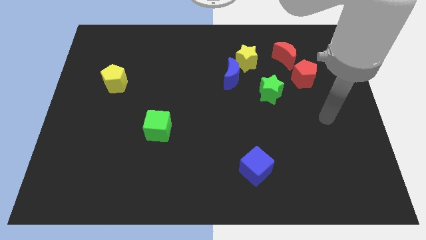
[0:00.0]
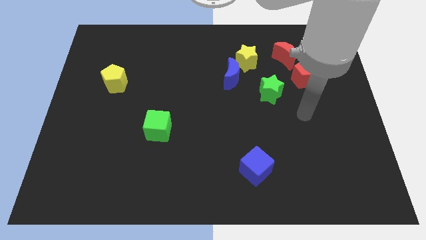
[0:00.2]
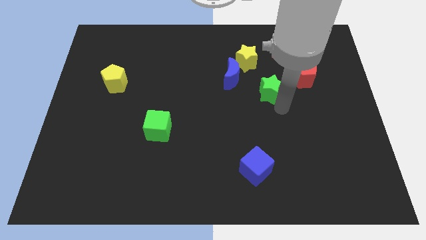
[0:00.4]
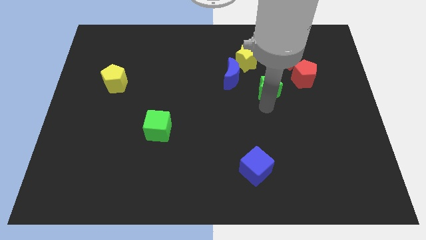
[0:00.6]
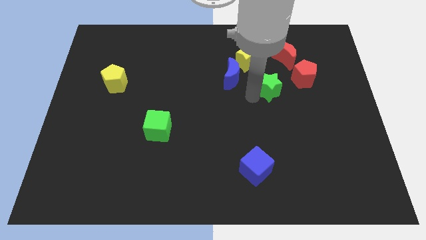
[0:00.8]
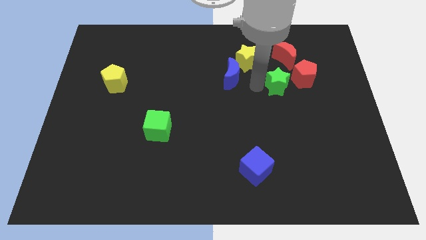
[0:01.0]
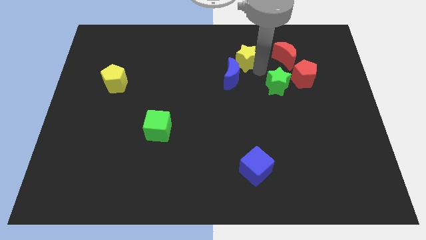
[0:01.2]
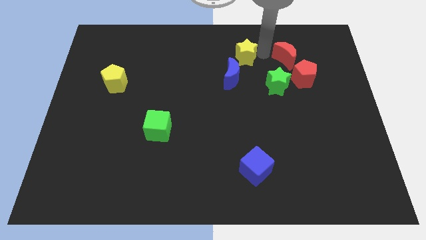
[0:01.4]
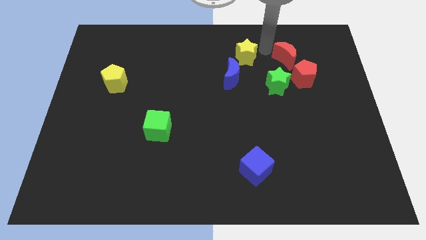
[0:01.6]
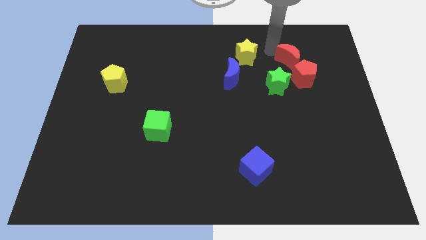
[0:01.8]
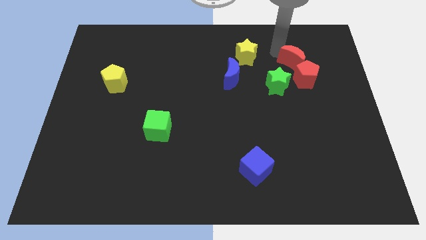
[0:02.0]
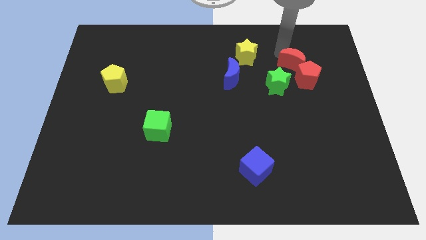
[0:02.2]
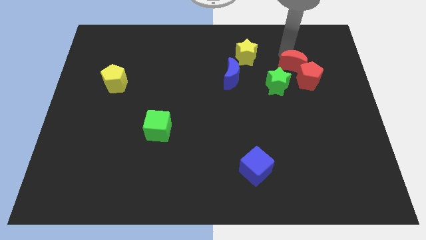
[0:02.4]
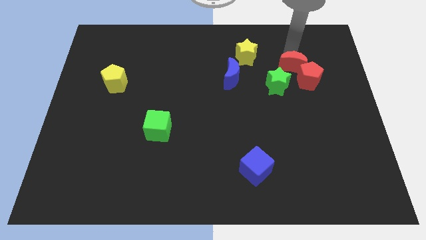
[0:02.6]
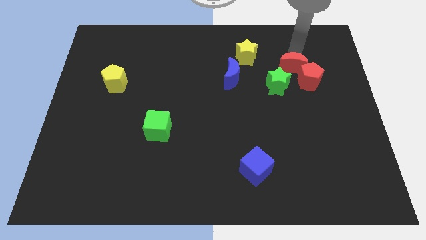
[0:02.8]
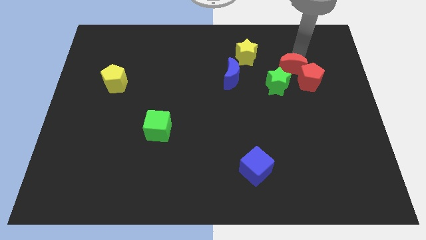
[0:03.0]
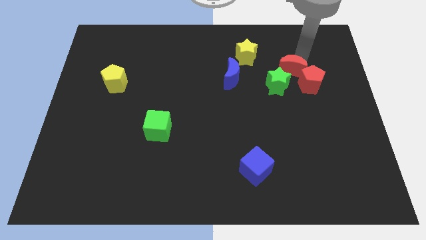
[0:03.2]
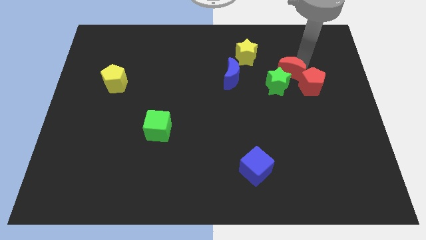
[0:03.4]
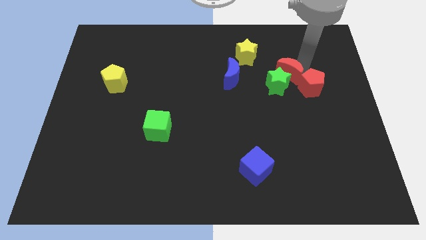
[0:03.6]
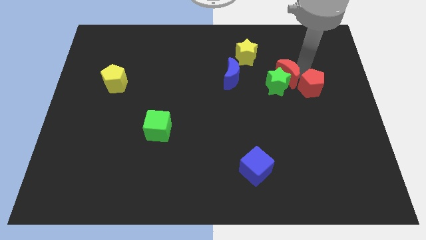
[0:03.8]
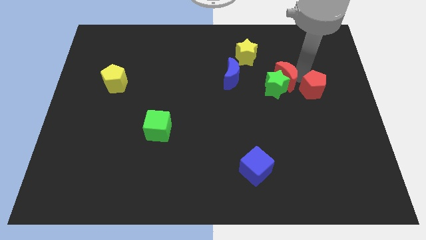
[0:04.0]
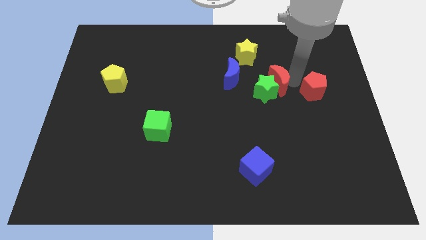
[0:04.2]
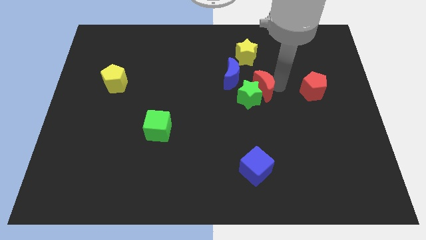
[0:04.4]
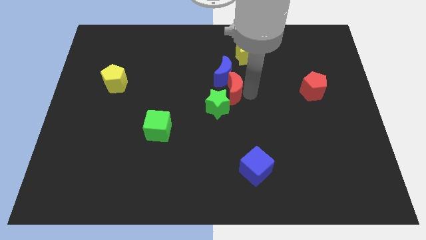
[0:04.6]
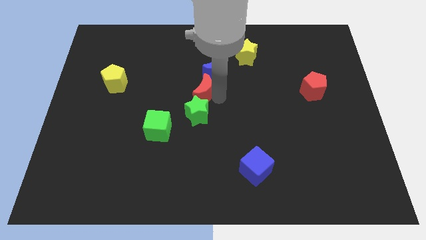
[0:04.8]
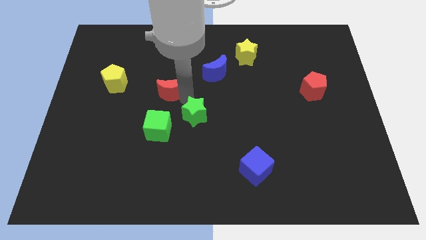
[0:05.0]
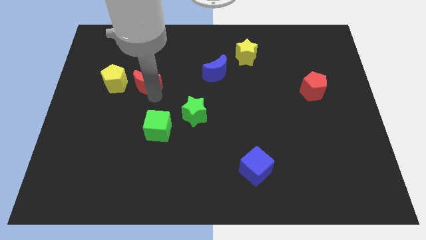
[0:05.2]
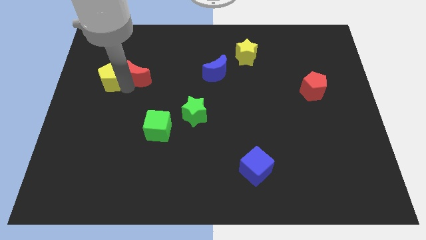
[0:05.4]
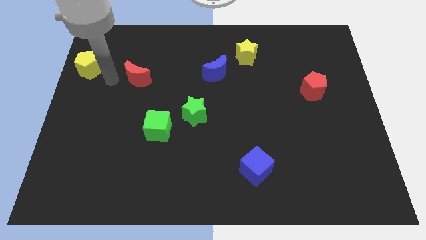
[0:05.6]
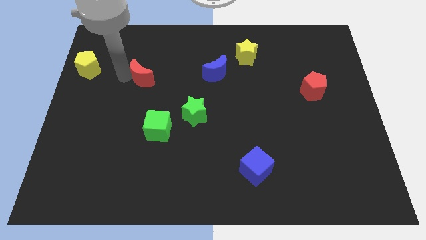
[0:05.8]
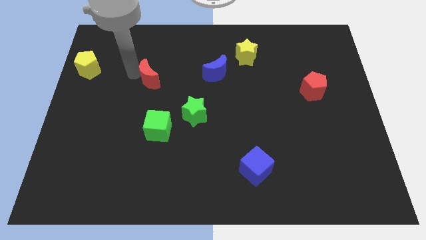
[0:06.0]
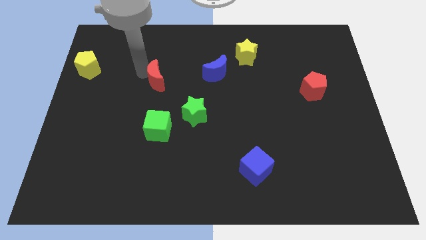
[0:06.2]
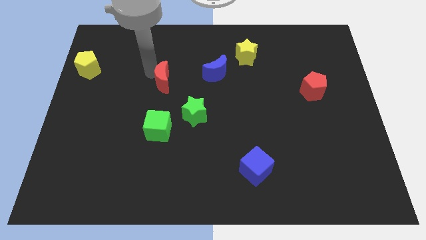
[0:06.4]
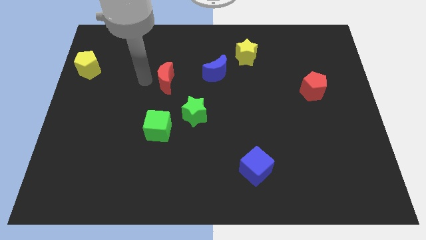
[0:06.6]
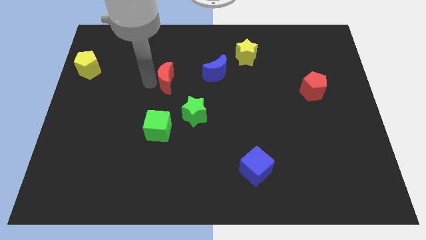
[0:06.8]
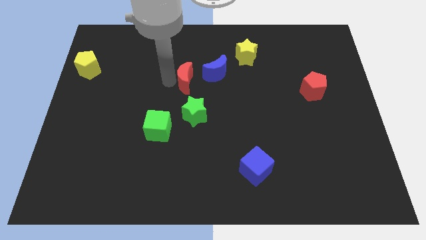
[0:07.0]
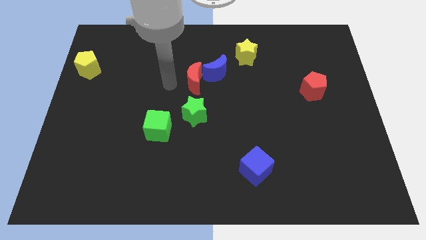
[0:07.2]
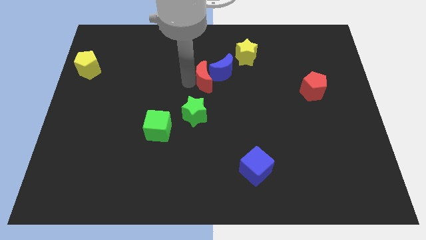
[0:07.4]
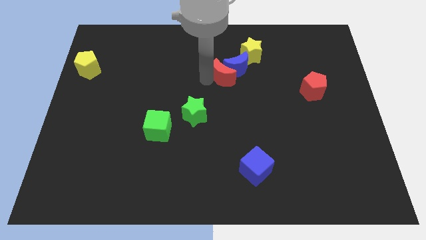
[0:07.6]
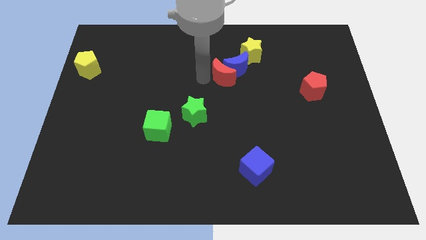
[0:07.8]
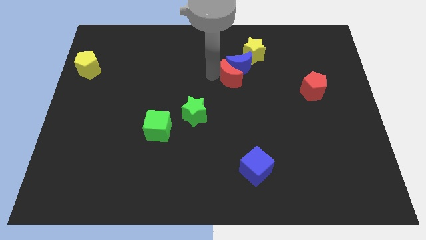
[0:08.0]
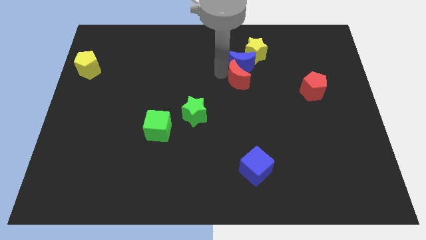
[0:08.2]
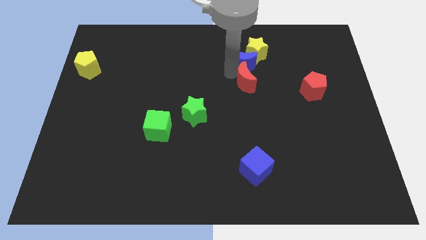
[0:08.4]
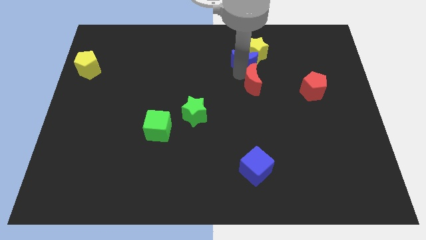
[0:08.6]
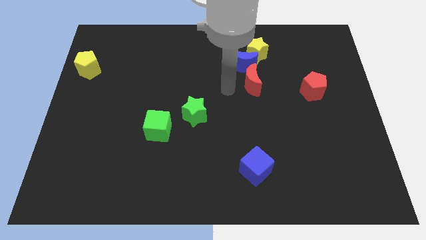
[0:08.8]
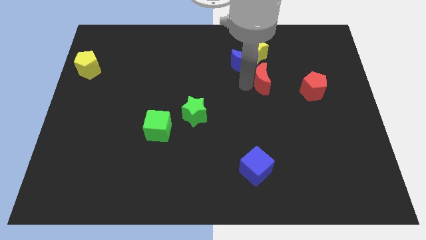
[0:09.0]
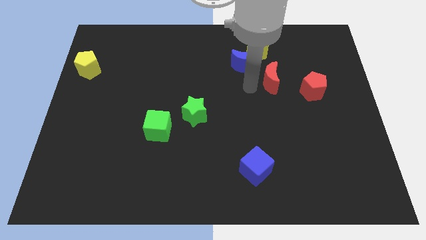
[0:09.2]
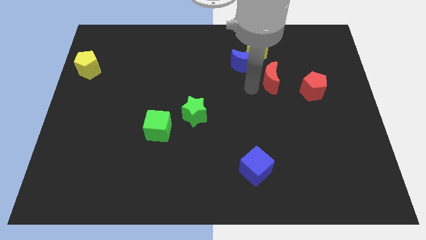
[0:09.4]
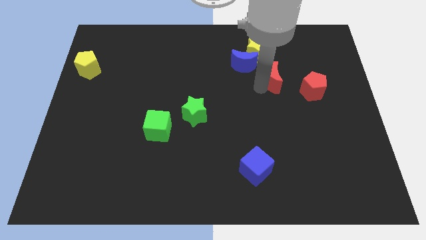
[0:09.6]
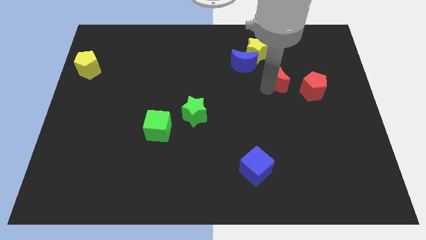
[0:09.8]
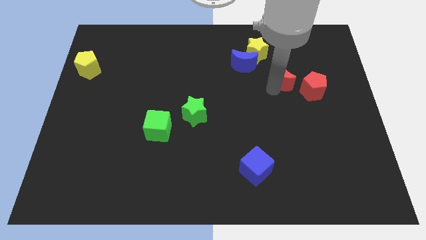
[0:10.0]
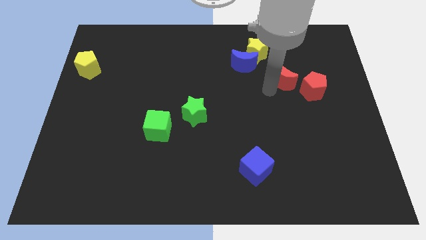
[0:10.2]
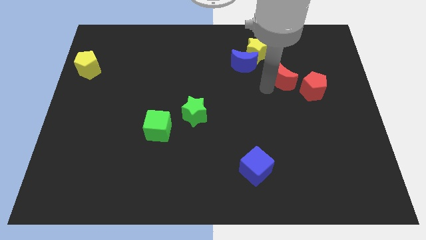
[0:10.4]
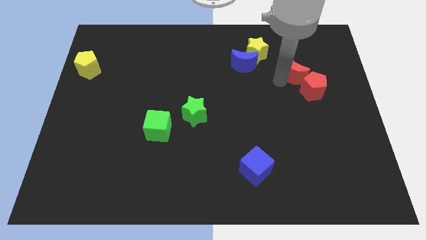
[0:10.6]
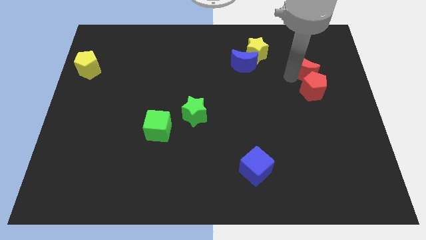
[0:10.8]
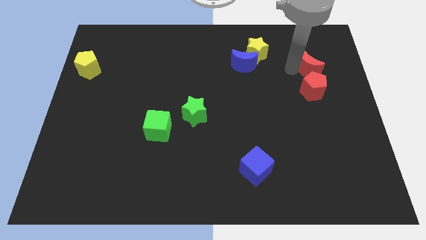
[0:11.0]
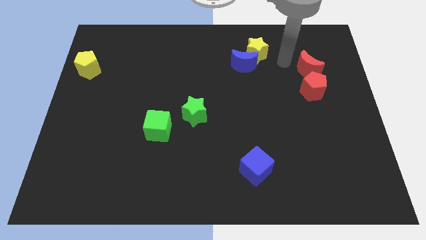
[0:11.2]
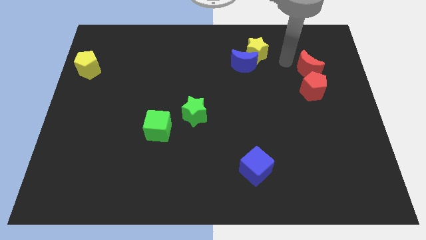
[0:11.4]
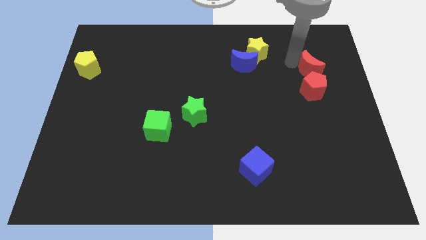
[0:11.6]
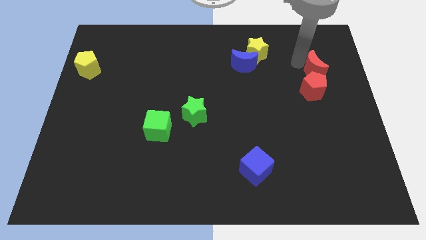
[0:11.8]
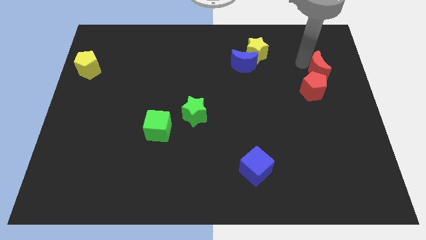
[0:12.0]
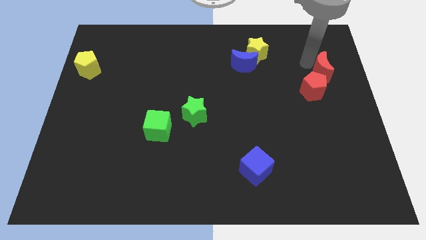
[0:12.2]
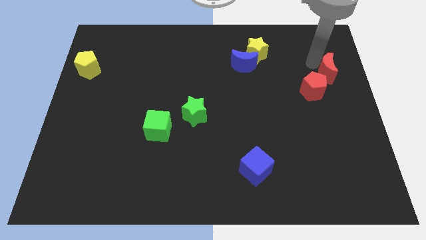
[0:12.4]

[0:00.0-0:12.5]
slide the red moon to the right side

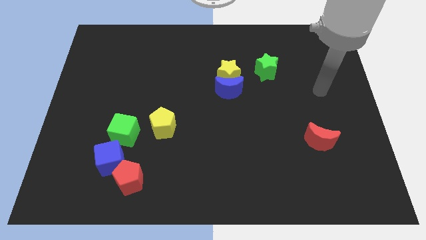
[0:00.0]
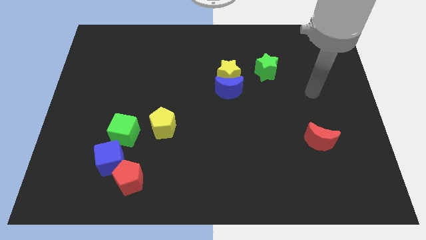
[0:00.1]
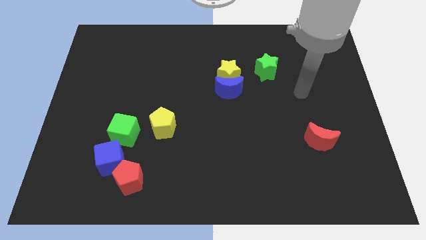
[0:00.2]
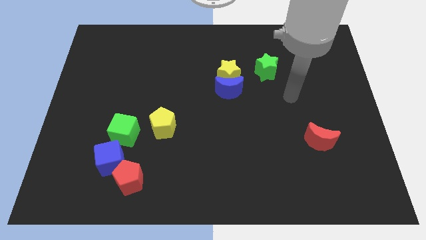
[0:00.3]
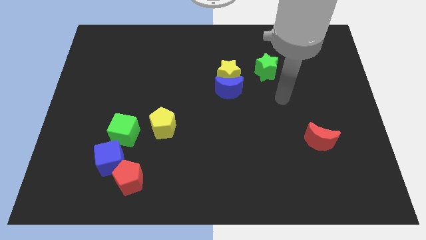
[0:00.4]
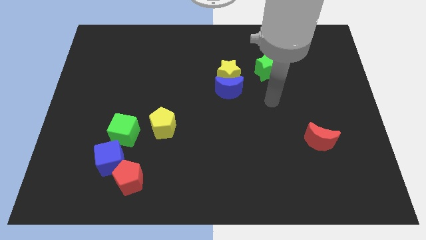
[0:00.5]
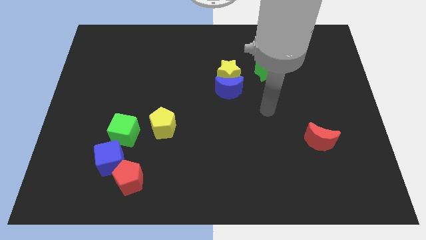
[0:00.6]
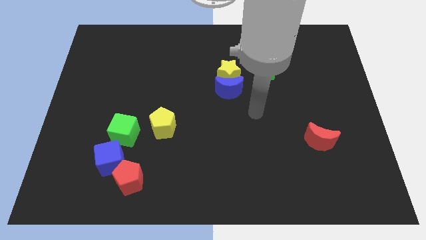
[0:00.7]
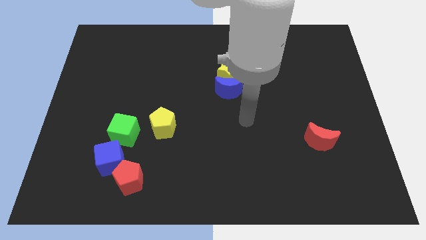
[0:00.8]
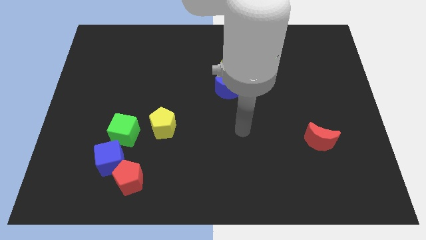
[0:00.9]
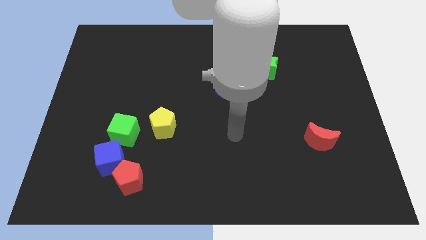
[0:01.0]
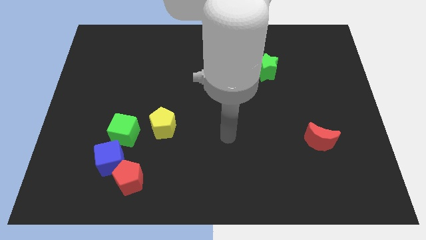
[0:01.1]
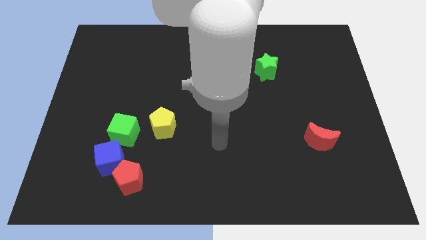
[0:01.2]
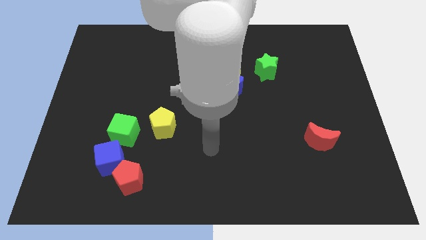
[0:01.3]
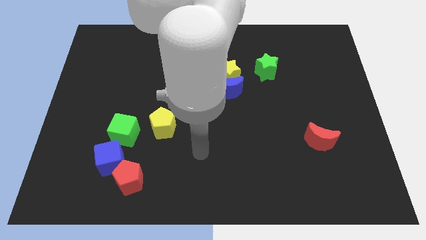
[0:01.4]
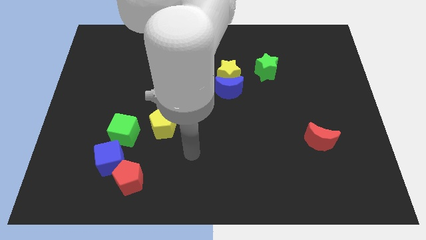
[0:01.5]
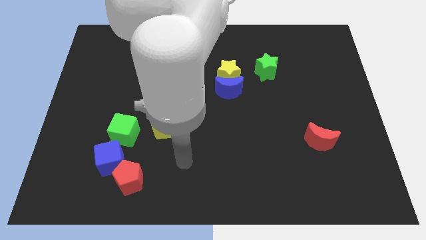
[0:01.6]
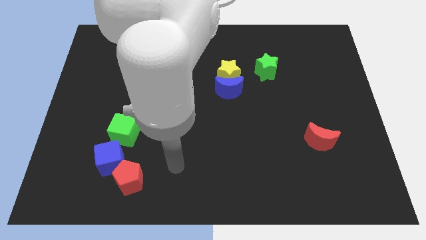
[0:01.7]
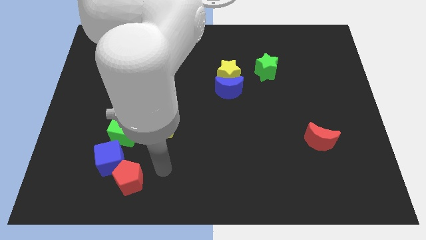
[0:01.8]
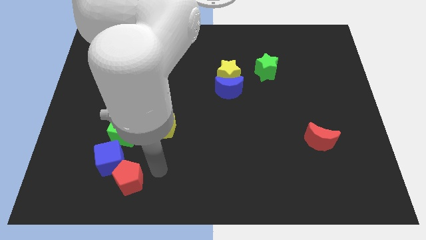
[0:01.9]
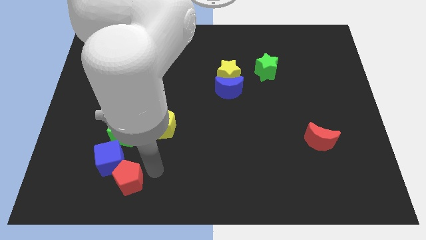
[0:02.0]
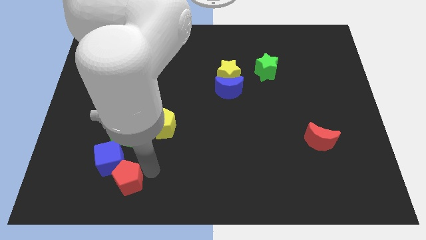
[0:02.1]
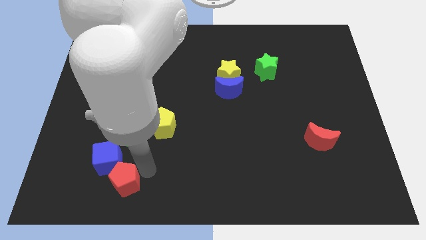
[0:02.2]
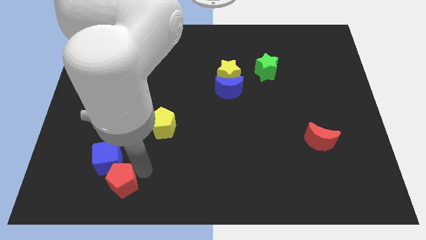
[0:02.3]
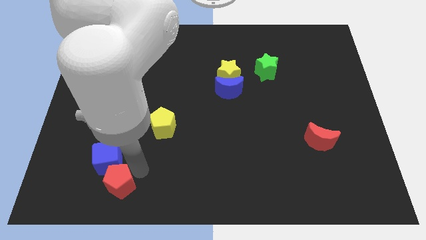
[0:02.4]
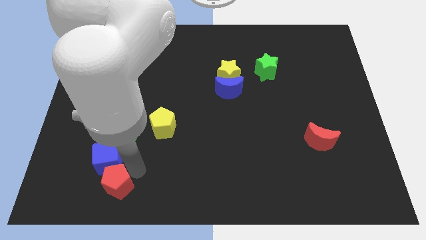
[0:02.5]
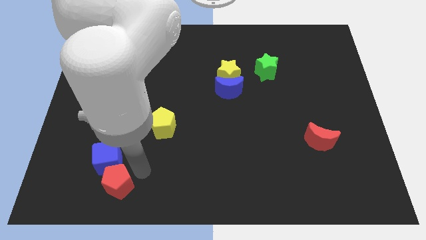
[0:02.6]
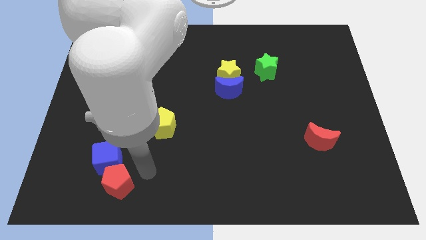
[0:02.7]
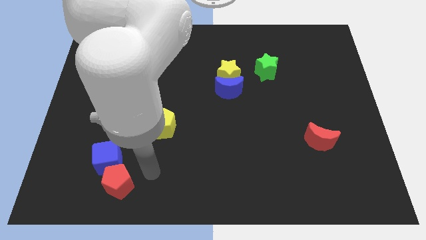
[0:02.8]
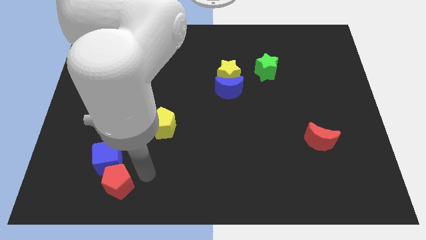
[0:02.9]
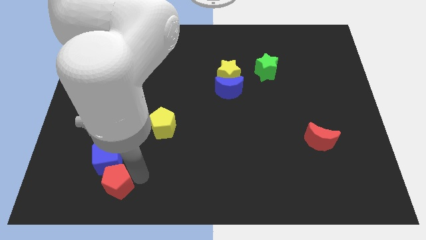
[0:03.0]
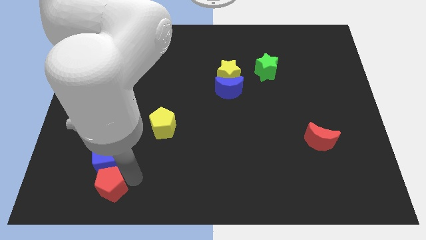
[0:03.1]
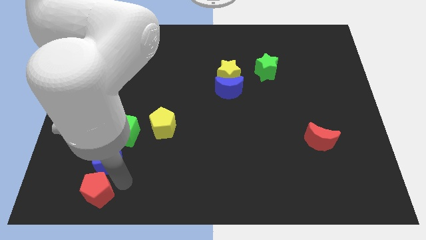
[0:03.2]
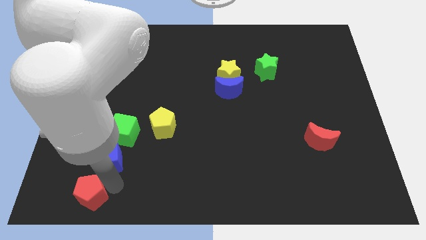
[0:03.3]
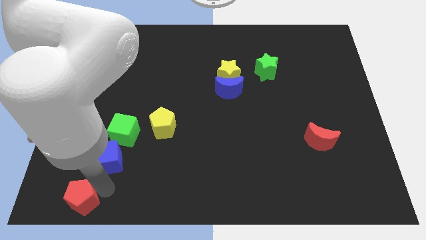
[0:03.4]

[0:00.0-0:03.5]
slide the red pentagon to the bottom left
